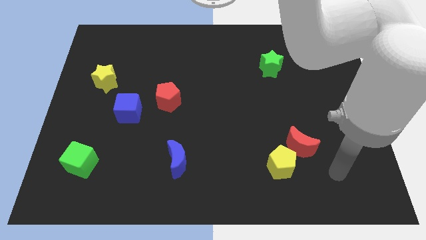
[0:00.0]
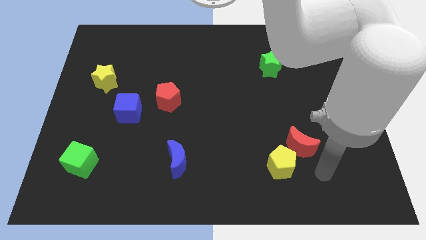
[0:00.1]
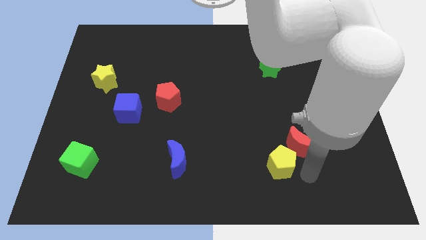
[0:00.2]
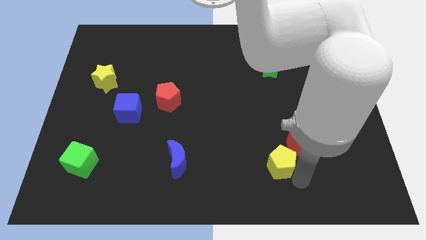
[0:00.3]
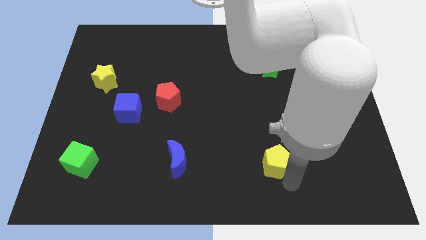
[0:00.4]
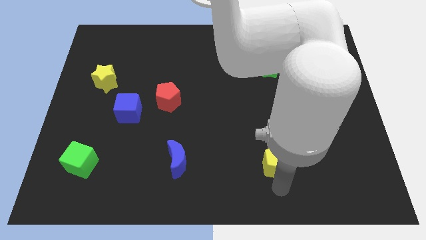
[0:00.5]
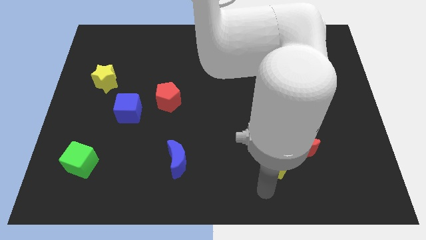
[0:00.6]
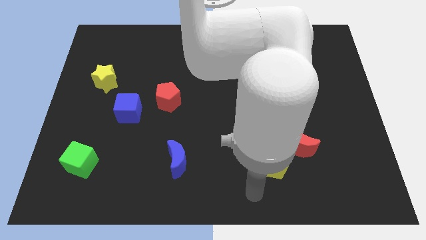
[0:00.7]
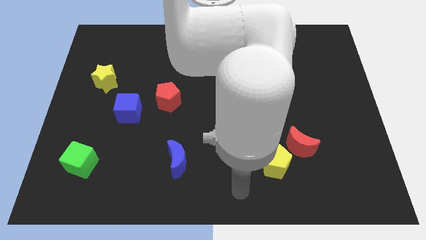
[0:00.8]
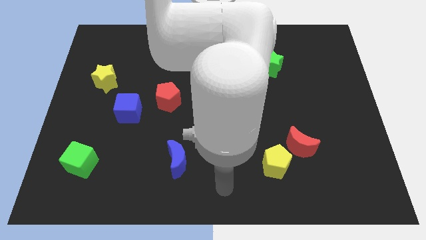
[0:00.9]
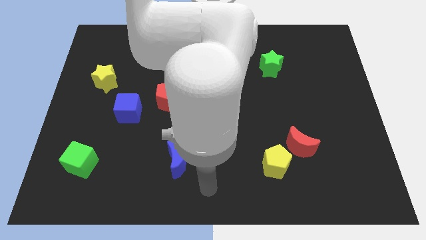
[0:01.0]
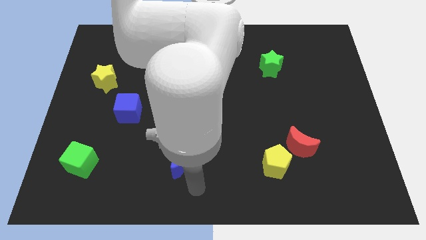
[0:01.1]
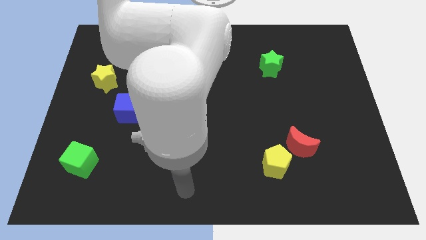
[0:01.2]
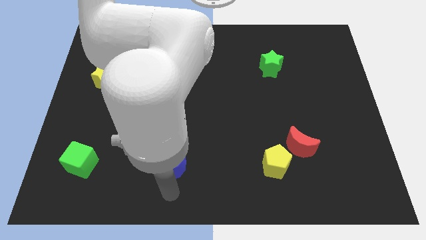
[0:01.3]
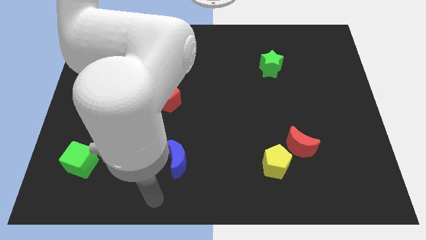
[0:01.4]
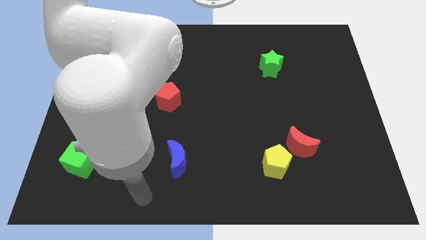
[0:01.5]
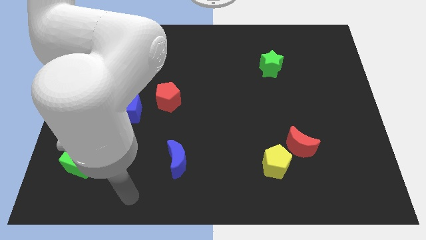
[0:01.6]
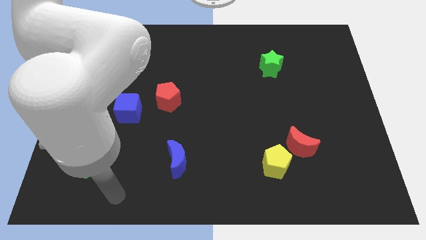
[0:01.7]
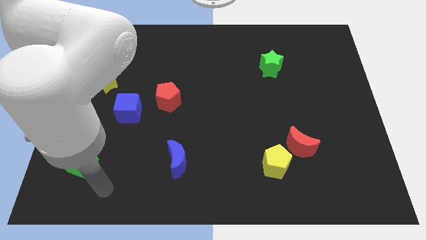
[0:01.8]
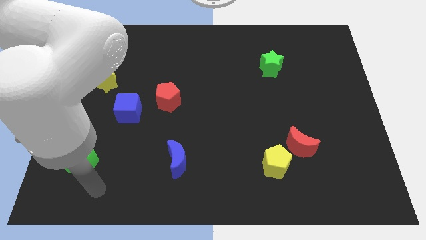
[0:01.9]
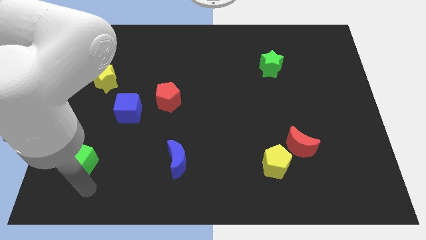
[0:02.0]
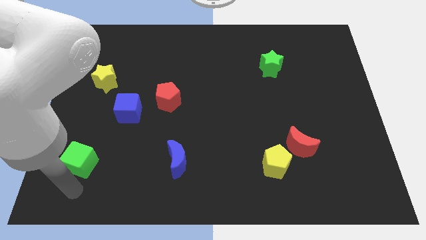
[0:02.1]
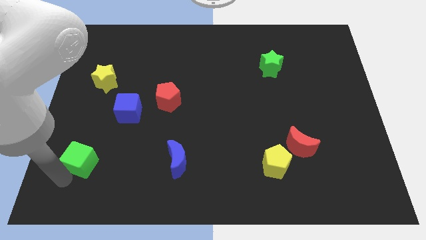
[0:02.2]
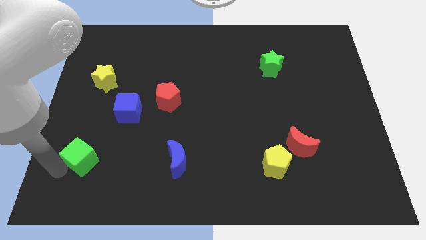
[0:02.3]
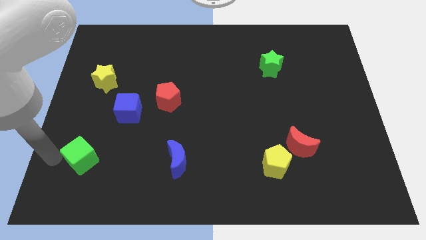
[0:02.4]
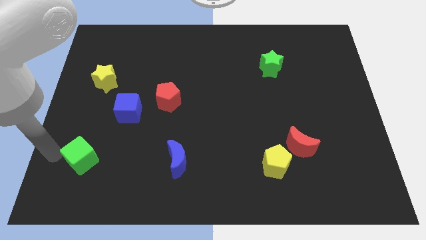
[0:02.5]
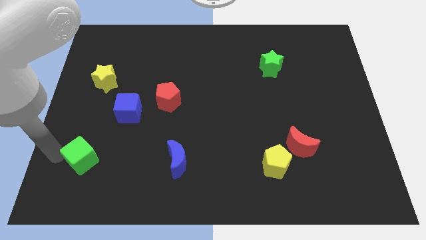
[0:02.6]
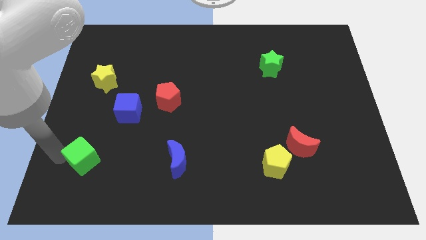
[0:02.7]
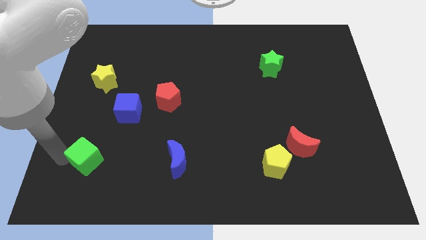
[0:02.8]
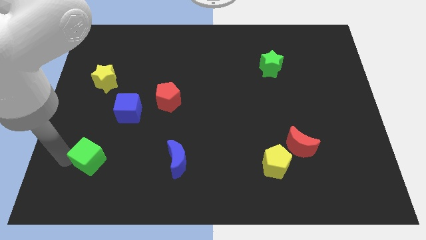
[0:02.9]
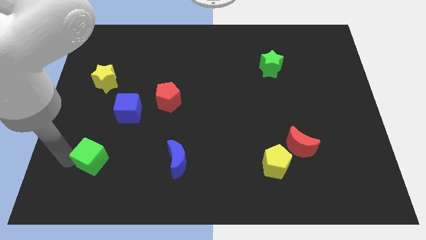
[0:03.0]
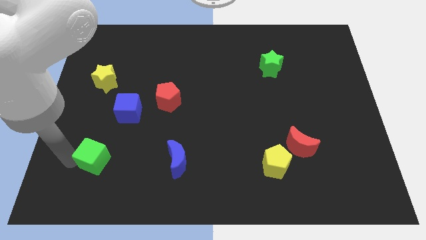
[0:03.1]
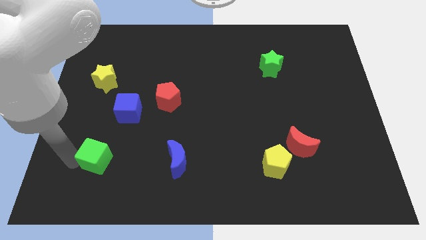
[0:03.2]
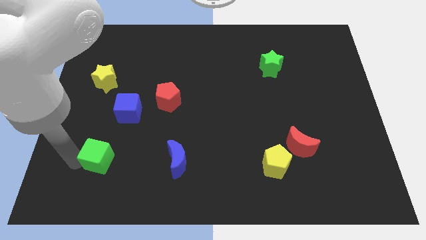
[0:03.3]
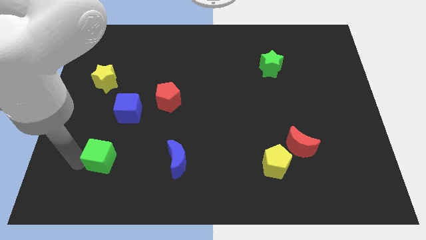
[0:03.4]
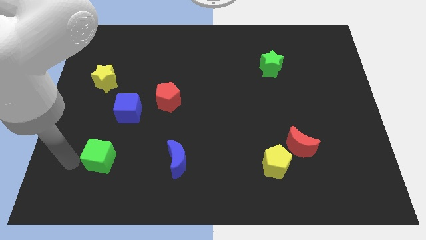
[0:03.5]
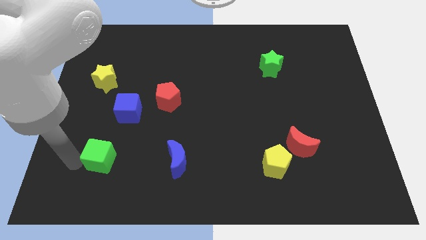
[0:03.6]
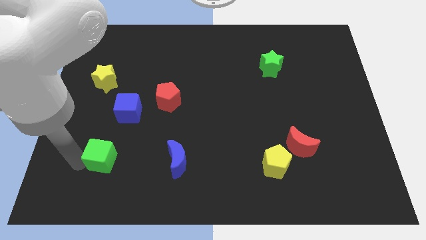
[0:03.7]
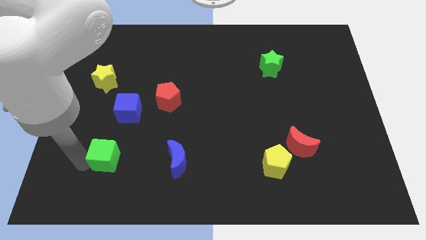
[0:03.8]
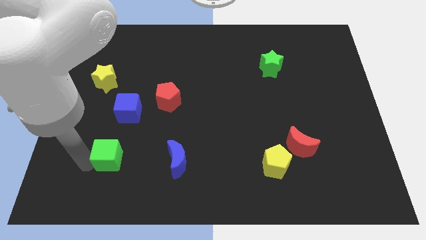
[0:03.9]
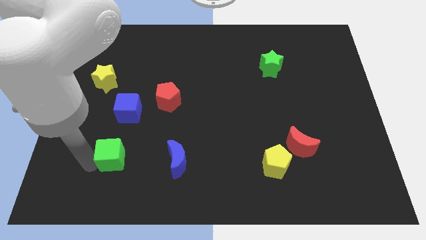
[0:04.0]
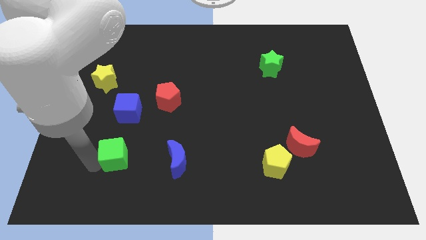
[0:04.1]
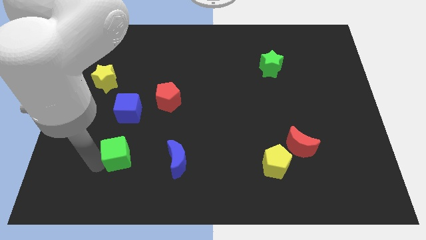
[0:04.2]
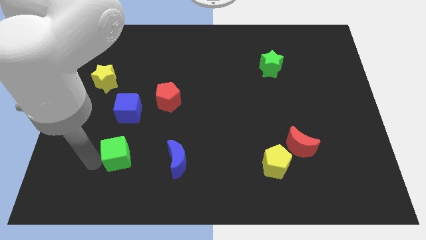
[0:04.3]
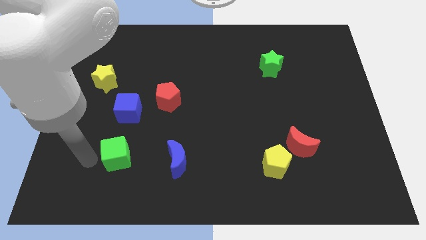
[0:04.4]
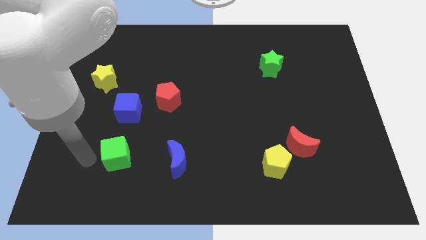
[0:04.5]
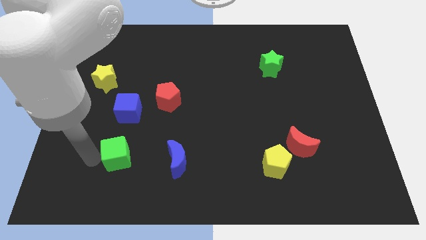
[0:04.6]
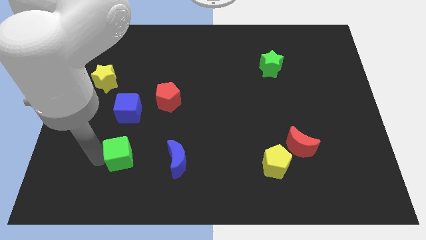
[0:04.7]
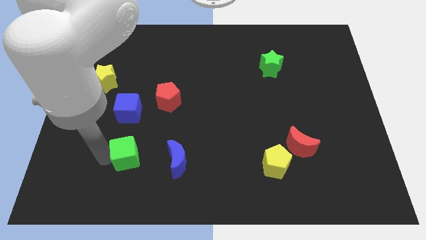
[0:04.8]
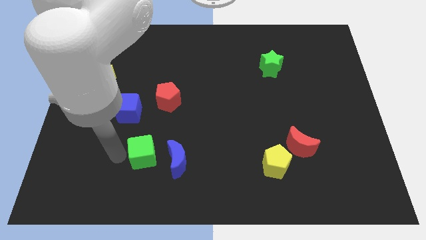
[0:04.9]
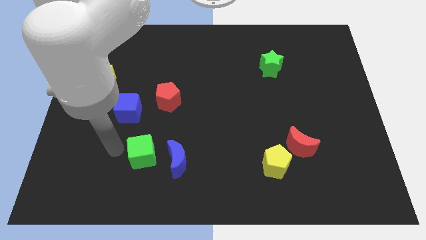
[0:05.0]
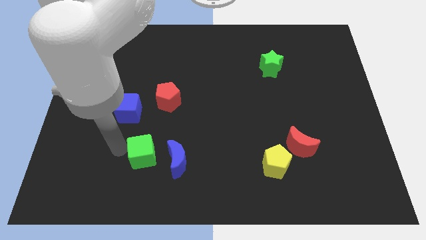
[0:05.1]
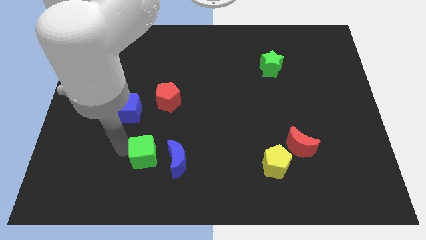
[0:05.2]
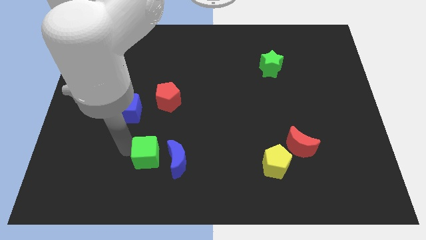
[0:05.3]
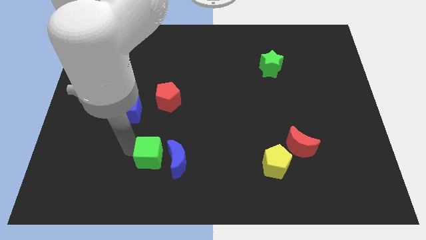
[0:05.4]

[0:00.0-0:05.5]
push the green cube towards the blue moon

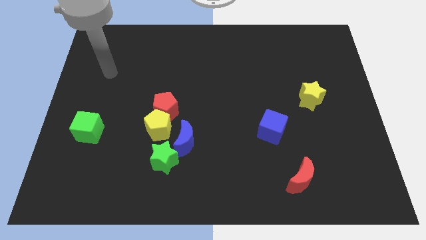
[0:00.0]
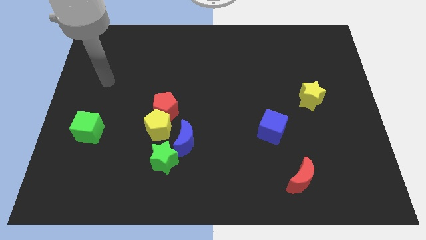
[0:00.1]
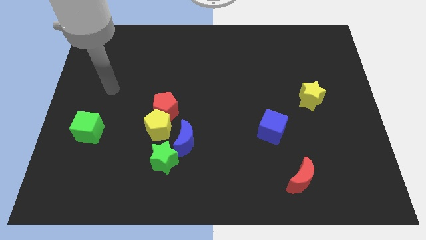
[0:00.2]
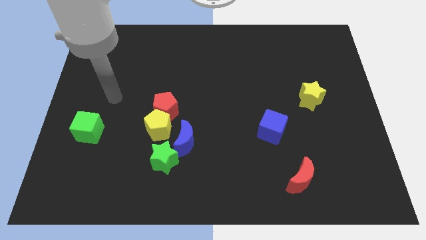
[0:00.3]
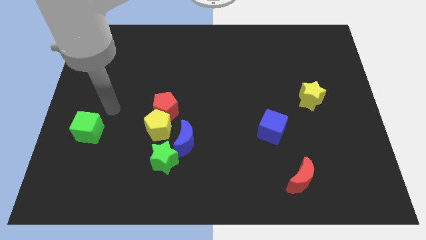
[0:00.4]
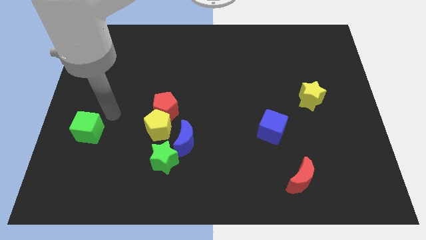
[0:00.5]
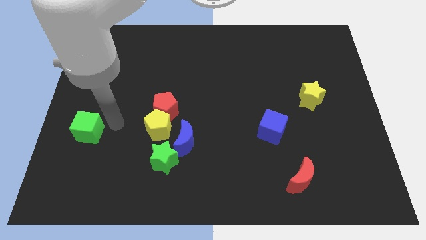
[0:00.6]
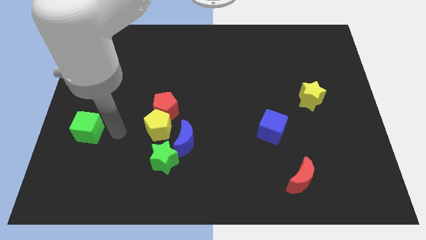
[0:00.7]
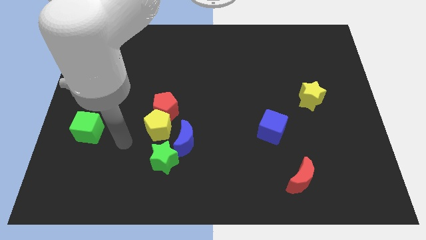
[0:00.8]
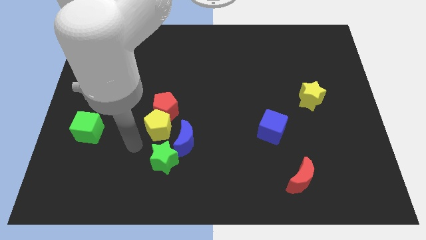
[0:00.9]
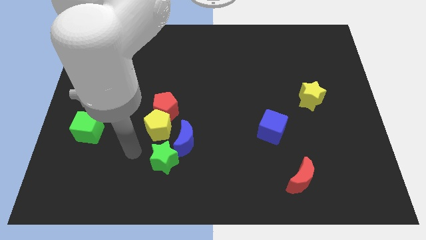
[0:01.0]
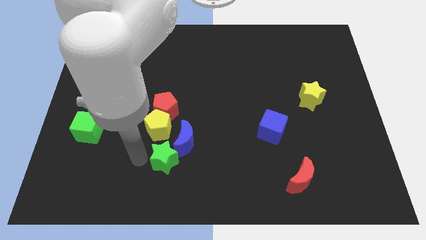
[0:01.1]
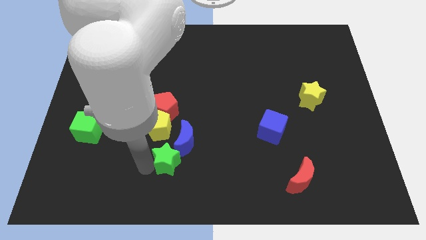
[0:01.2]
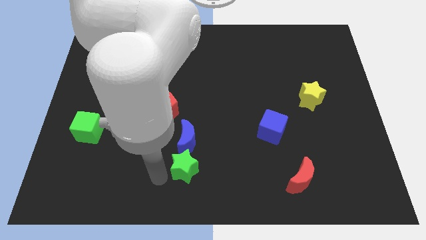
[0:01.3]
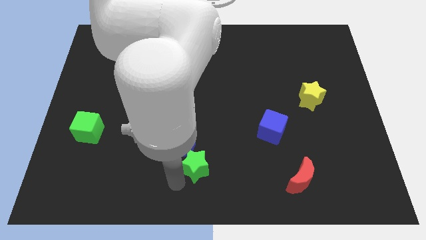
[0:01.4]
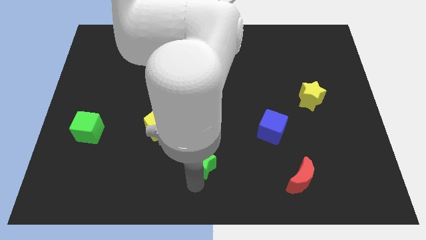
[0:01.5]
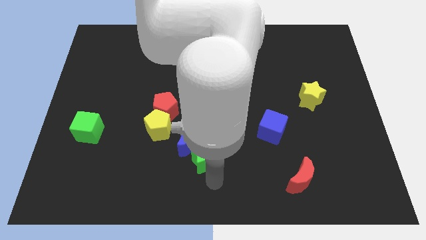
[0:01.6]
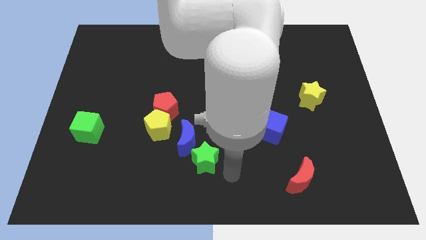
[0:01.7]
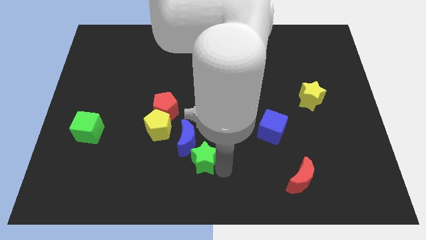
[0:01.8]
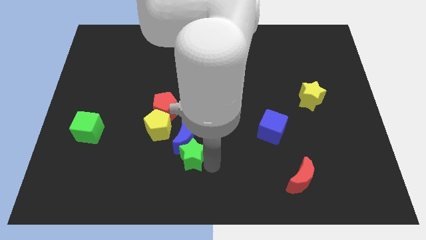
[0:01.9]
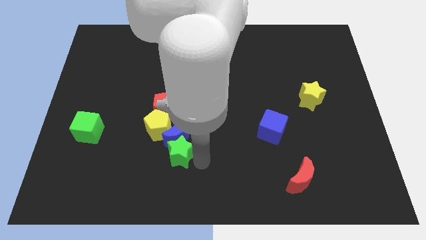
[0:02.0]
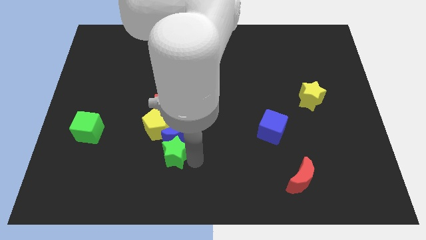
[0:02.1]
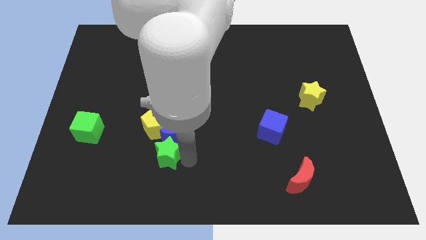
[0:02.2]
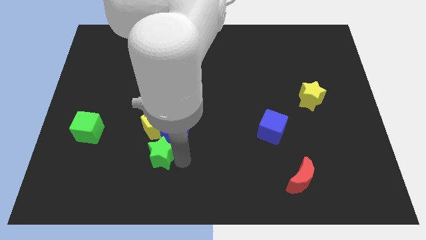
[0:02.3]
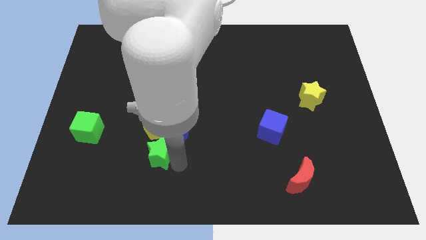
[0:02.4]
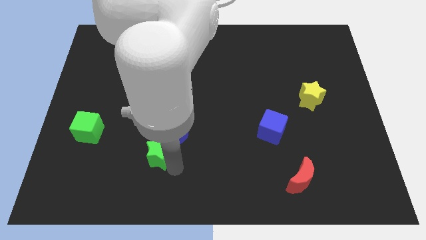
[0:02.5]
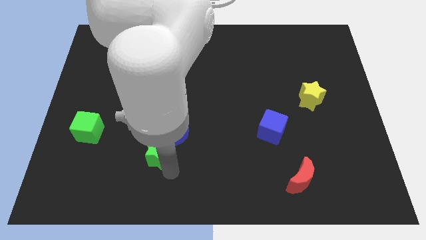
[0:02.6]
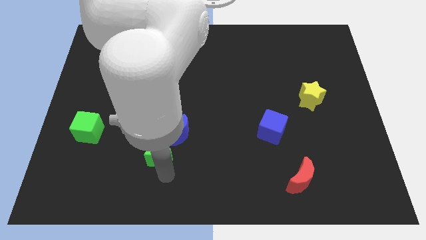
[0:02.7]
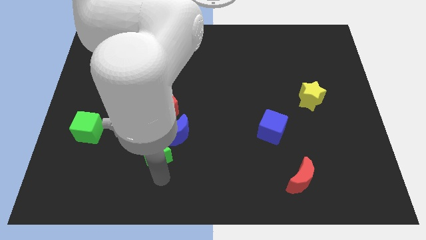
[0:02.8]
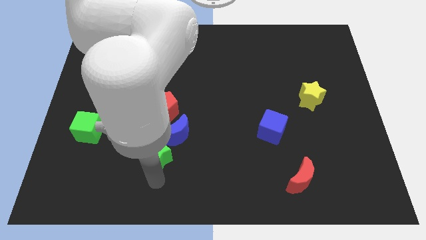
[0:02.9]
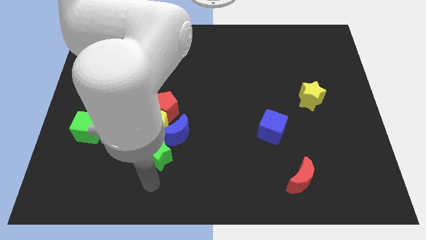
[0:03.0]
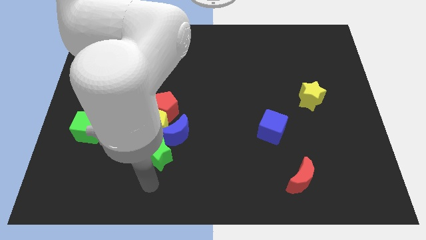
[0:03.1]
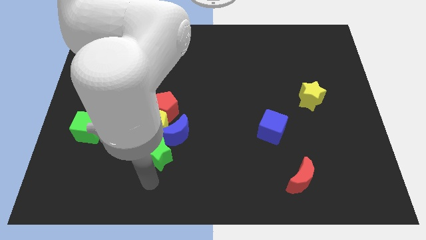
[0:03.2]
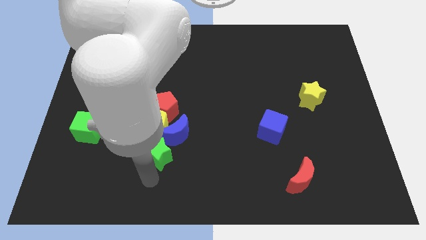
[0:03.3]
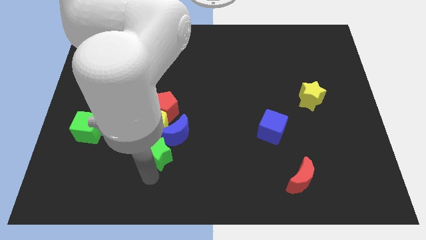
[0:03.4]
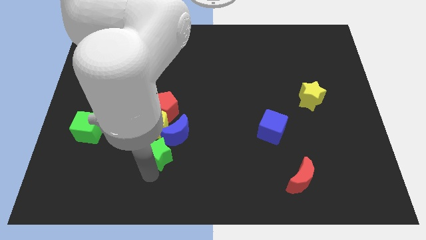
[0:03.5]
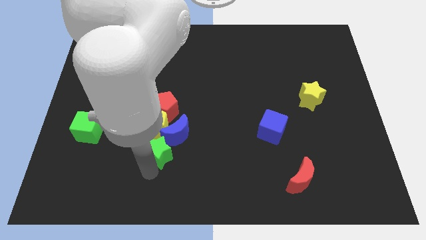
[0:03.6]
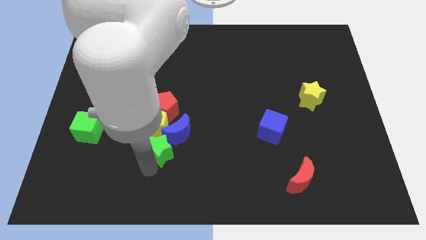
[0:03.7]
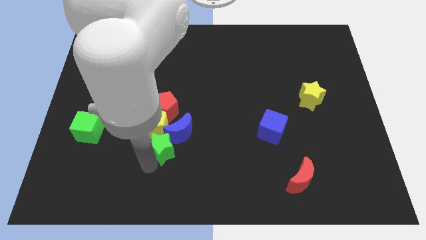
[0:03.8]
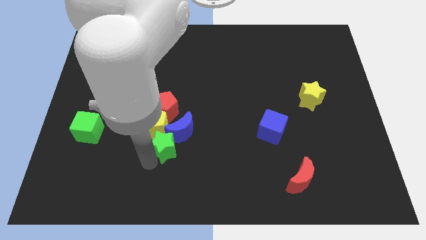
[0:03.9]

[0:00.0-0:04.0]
slide the green star close to the yellow pentagon
